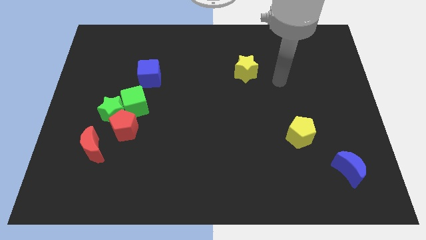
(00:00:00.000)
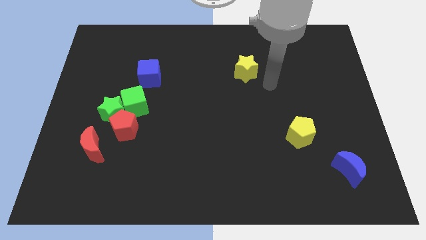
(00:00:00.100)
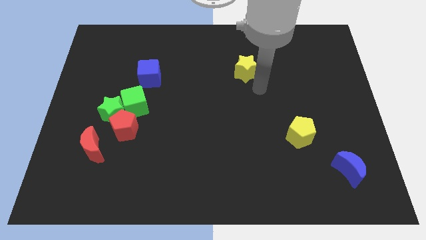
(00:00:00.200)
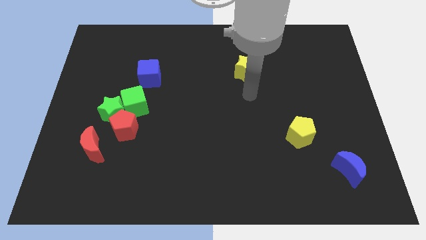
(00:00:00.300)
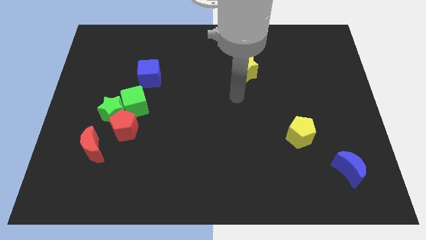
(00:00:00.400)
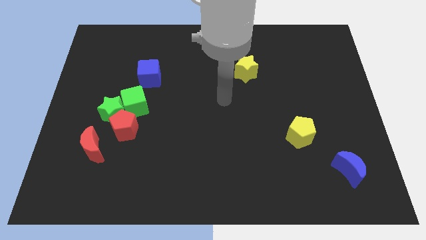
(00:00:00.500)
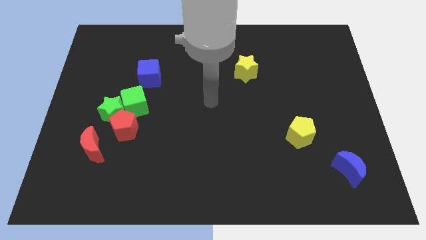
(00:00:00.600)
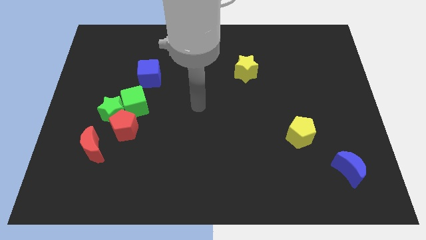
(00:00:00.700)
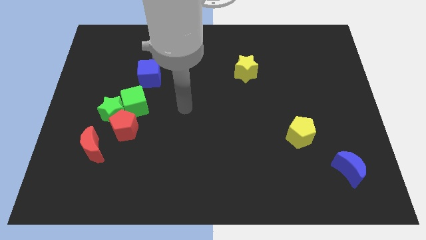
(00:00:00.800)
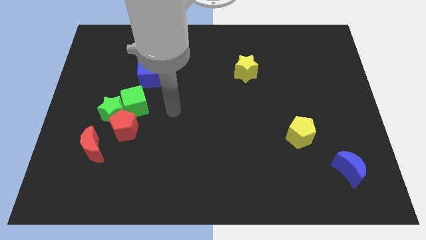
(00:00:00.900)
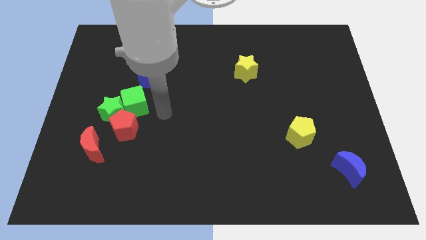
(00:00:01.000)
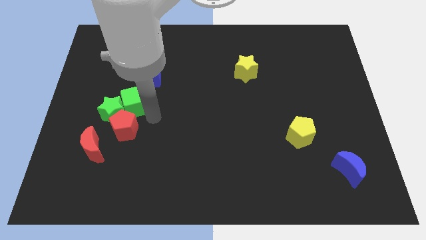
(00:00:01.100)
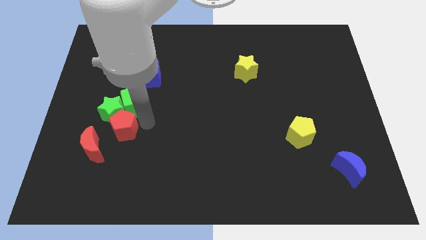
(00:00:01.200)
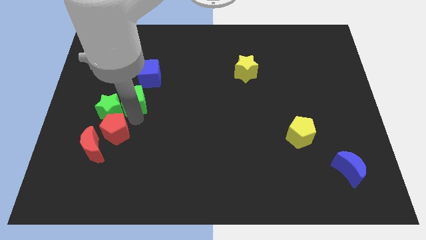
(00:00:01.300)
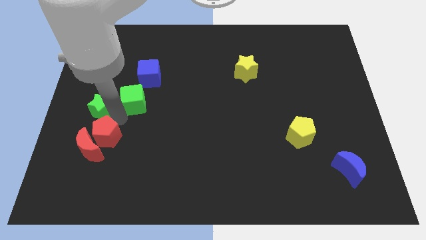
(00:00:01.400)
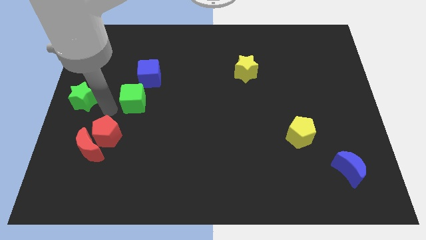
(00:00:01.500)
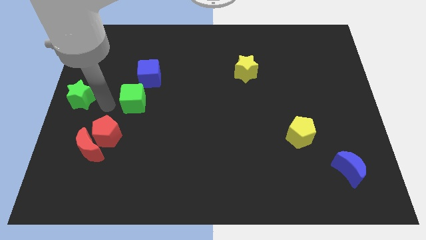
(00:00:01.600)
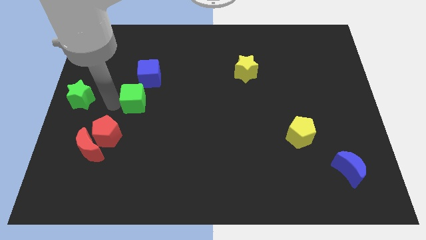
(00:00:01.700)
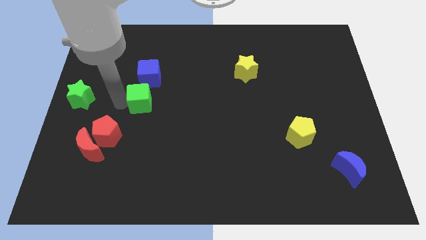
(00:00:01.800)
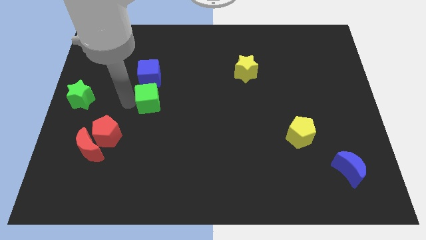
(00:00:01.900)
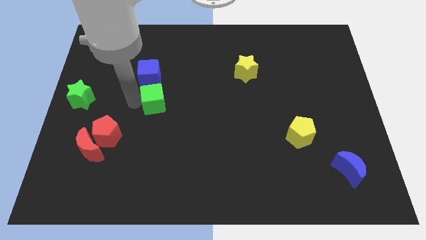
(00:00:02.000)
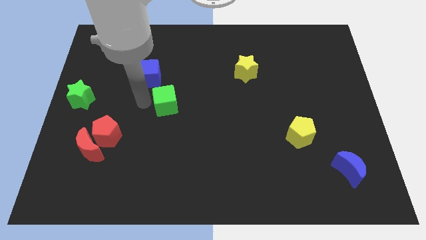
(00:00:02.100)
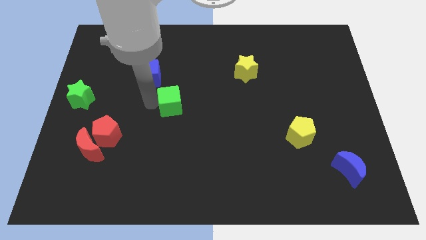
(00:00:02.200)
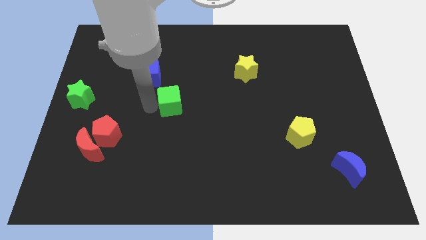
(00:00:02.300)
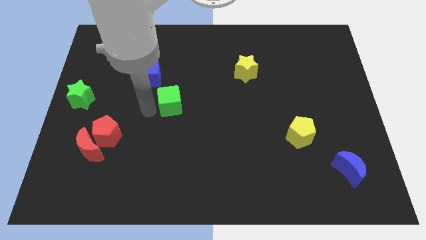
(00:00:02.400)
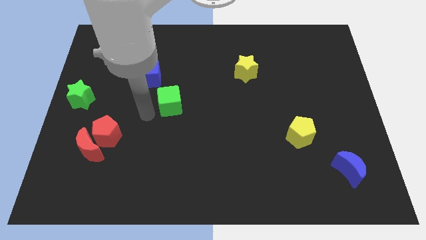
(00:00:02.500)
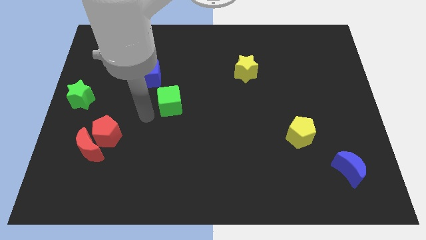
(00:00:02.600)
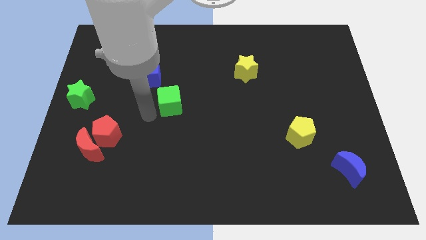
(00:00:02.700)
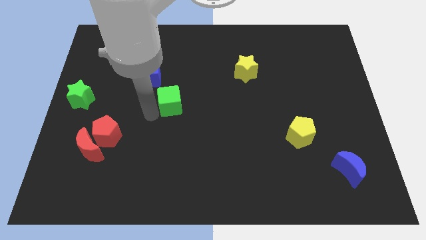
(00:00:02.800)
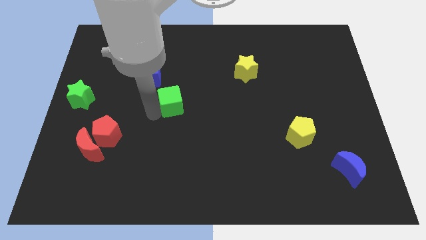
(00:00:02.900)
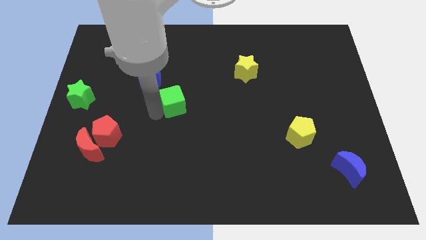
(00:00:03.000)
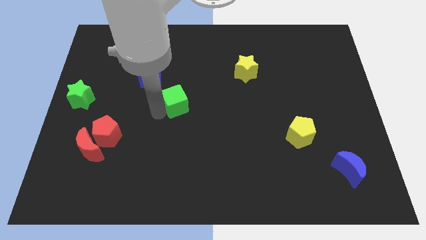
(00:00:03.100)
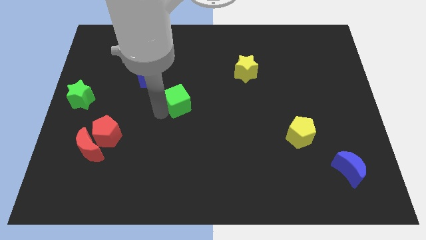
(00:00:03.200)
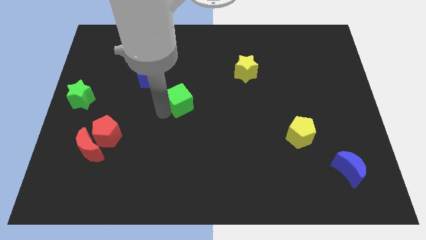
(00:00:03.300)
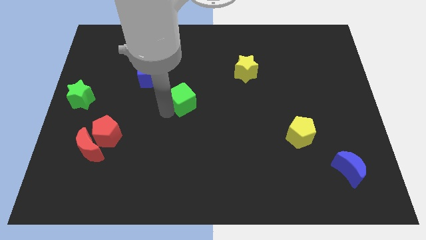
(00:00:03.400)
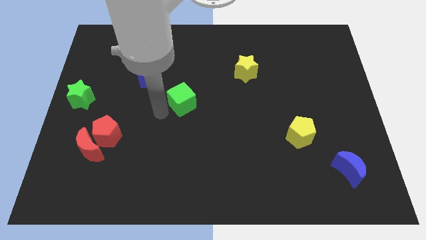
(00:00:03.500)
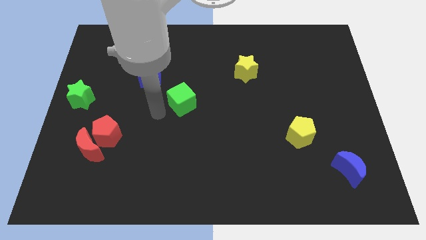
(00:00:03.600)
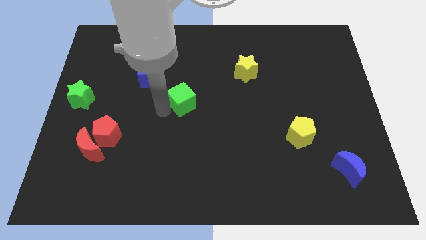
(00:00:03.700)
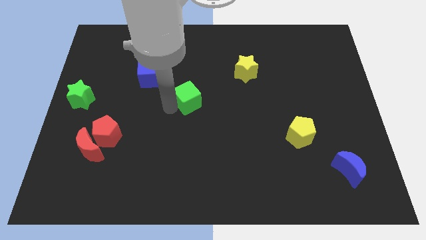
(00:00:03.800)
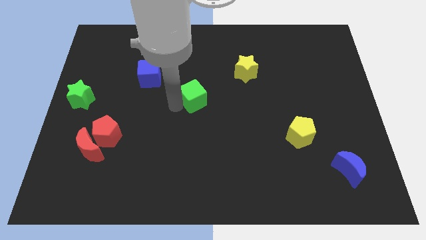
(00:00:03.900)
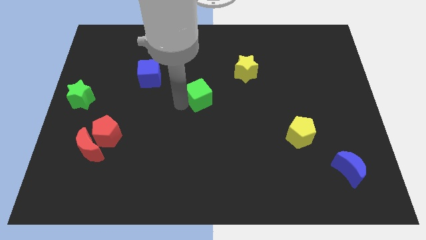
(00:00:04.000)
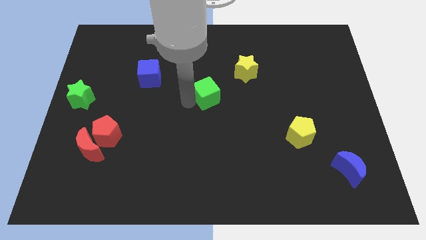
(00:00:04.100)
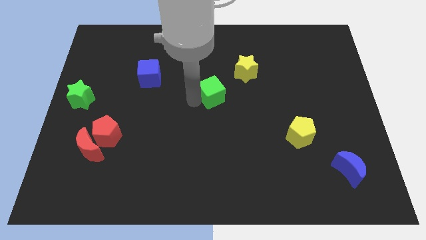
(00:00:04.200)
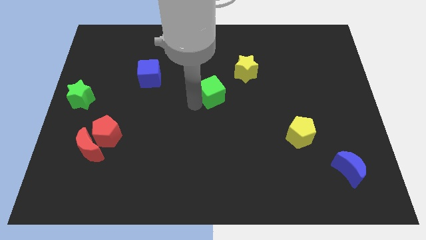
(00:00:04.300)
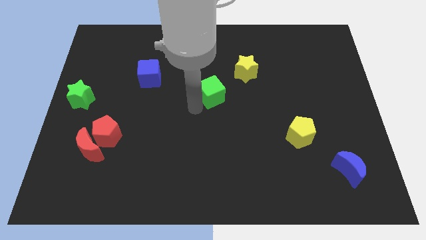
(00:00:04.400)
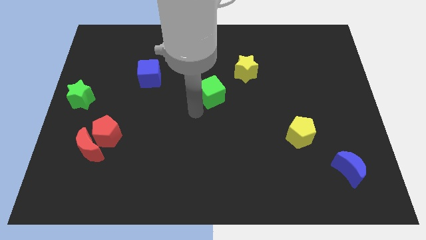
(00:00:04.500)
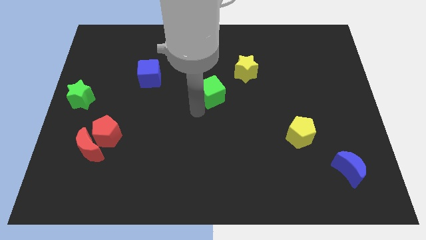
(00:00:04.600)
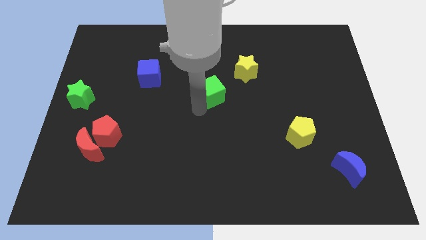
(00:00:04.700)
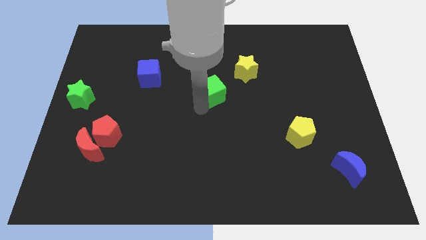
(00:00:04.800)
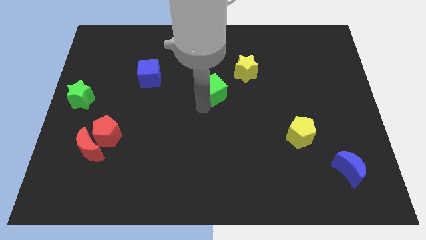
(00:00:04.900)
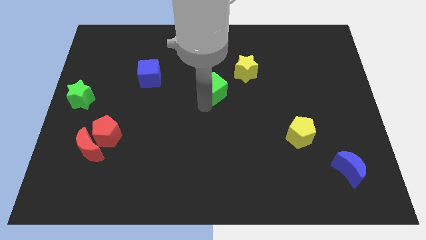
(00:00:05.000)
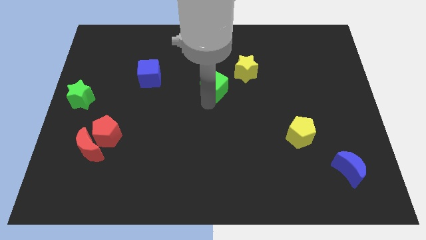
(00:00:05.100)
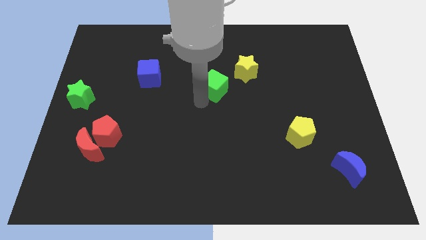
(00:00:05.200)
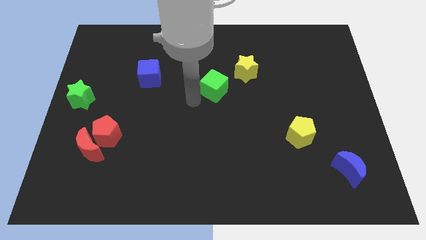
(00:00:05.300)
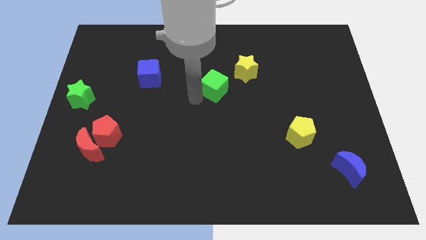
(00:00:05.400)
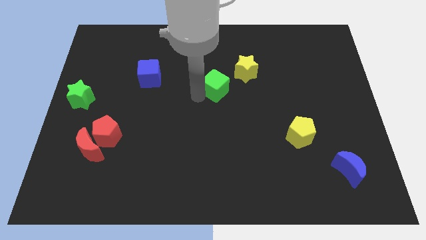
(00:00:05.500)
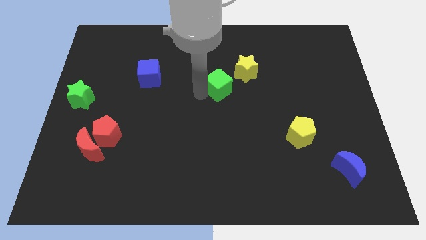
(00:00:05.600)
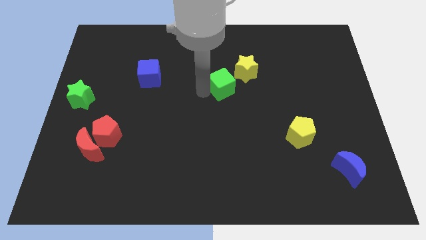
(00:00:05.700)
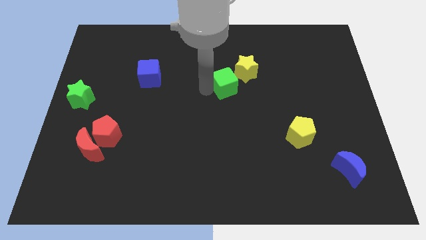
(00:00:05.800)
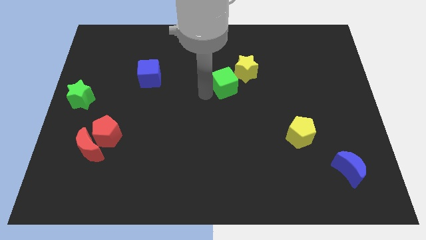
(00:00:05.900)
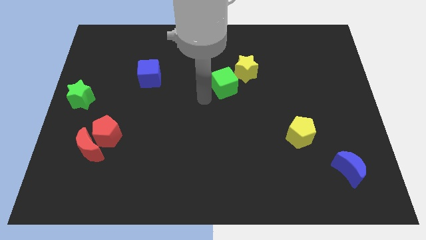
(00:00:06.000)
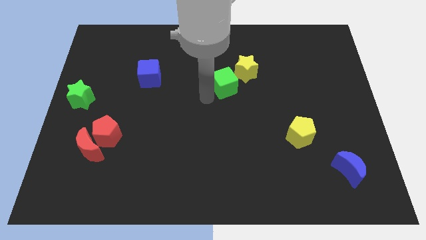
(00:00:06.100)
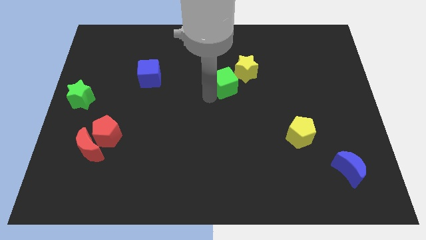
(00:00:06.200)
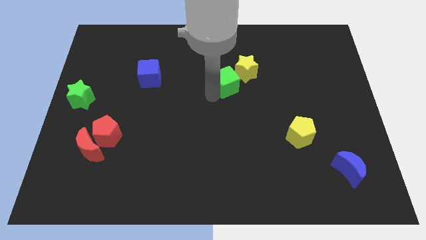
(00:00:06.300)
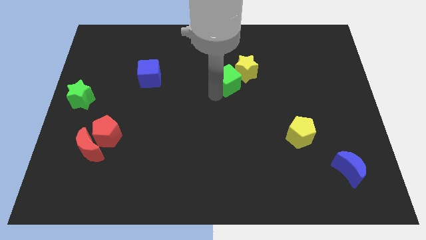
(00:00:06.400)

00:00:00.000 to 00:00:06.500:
push the green cube close to the yellow star
